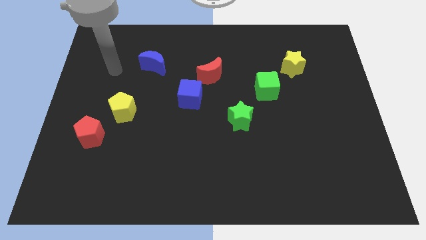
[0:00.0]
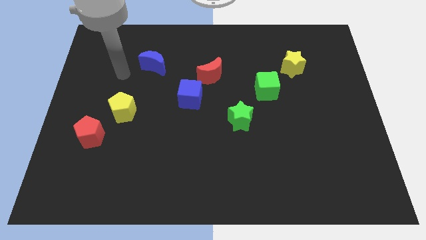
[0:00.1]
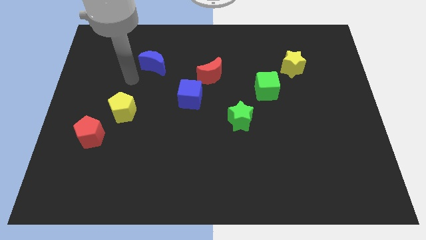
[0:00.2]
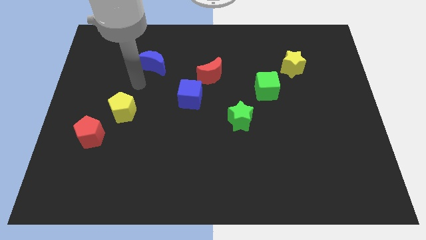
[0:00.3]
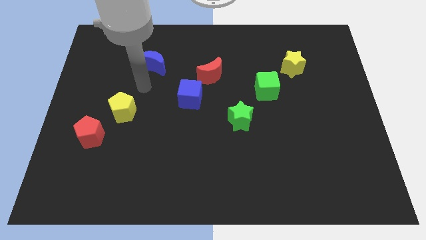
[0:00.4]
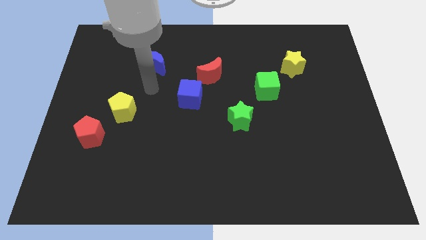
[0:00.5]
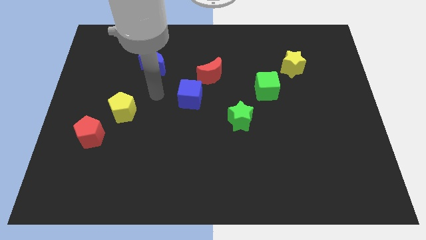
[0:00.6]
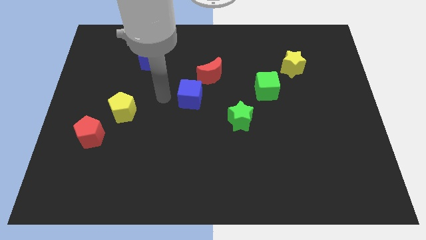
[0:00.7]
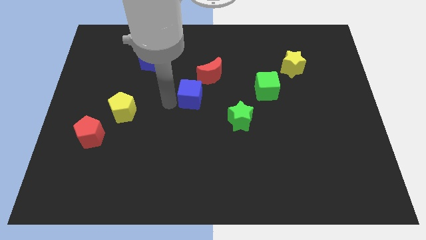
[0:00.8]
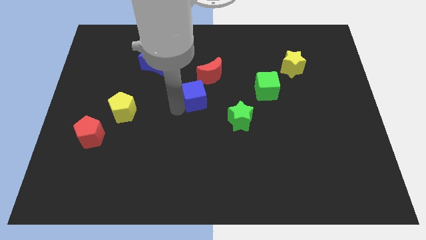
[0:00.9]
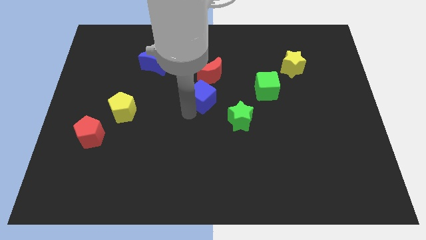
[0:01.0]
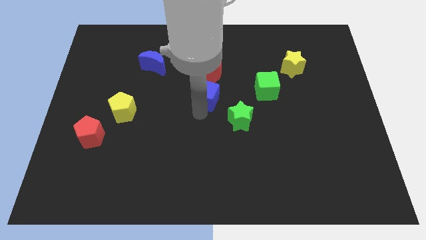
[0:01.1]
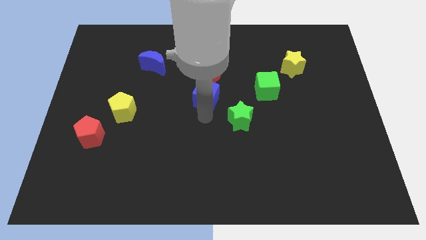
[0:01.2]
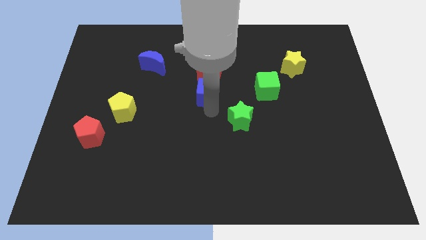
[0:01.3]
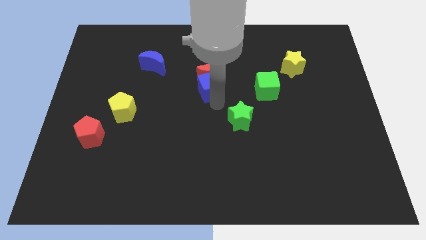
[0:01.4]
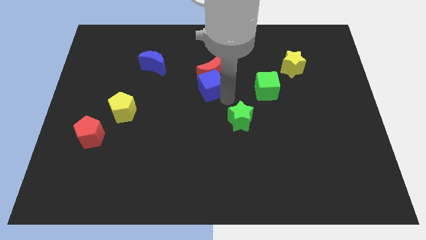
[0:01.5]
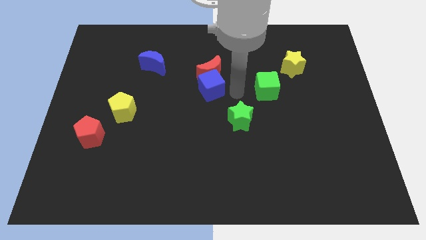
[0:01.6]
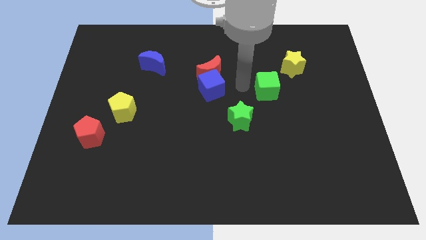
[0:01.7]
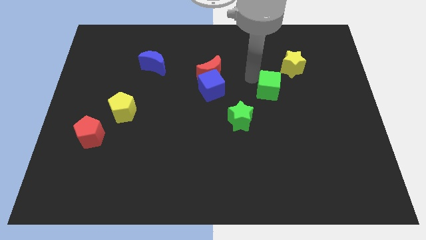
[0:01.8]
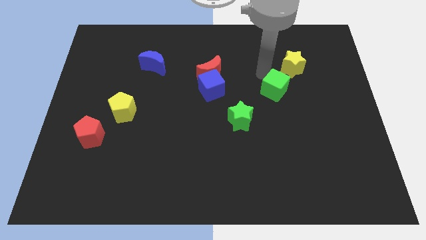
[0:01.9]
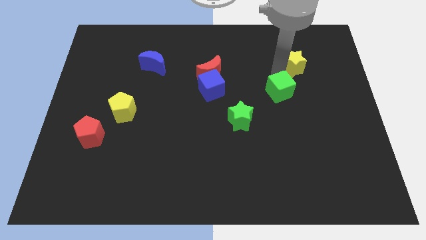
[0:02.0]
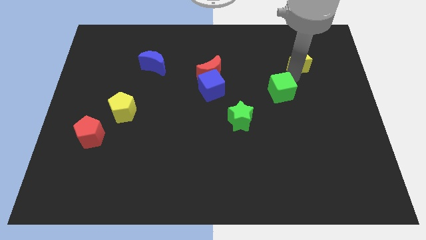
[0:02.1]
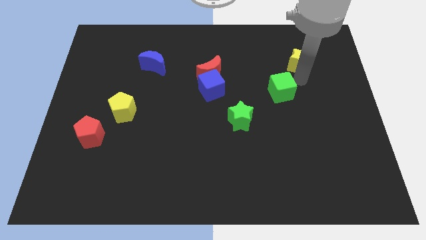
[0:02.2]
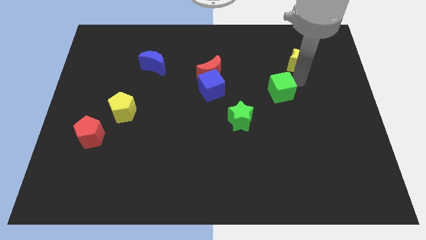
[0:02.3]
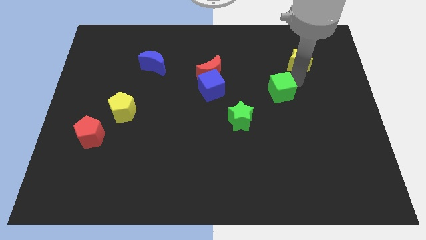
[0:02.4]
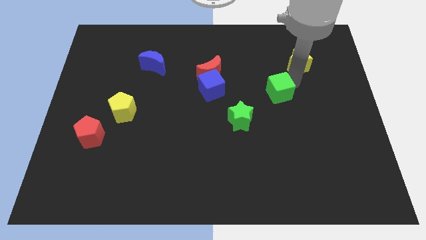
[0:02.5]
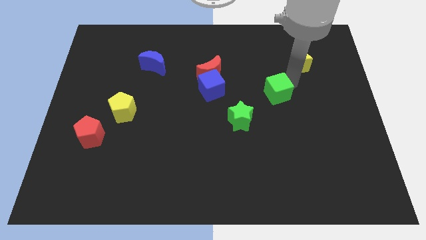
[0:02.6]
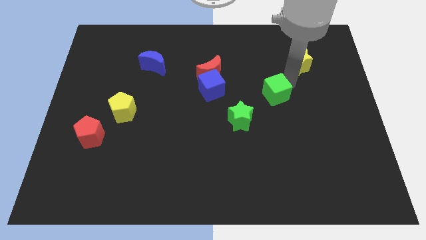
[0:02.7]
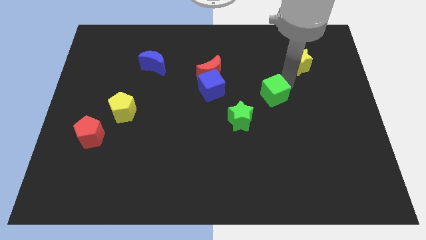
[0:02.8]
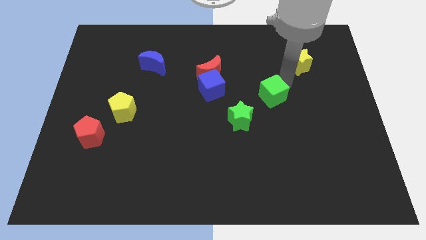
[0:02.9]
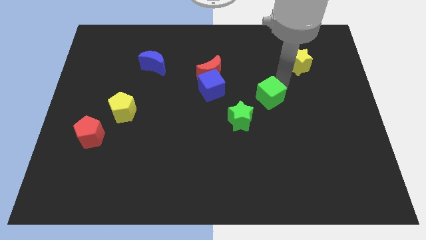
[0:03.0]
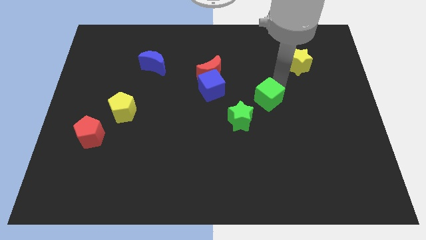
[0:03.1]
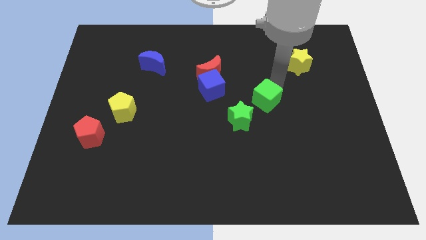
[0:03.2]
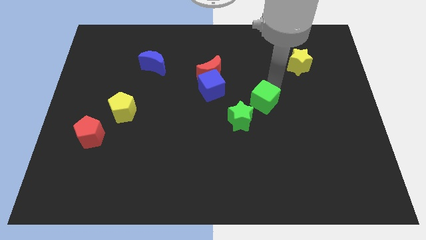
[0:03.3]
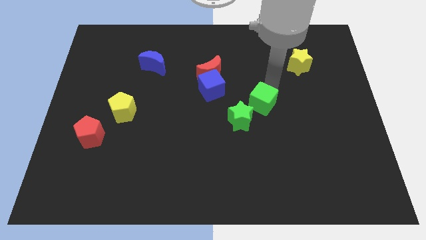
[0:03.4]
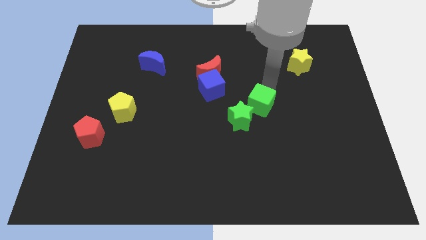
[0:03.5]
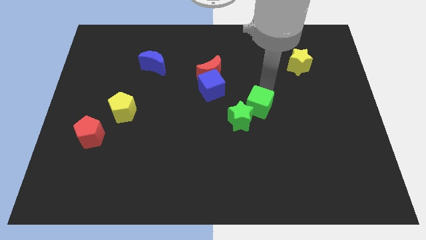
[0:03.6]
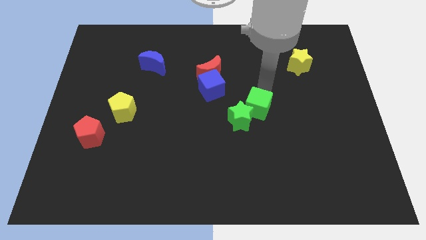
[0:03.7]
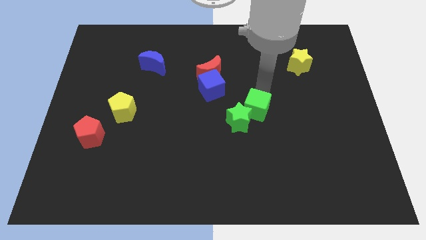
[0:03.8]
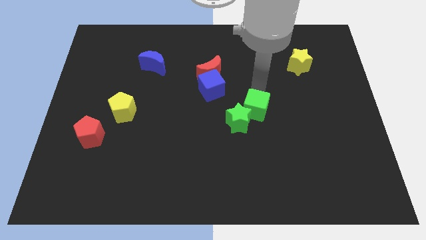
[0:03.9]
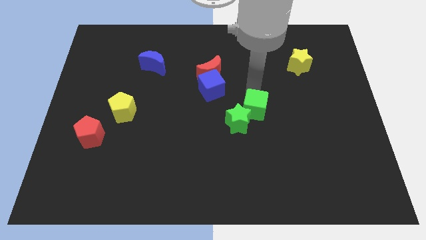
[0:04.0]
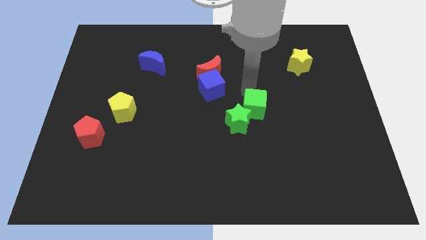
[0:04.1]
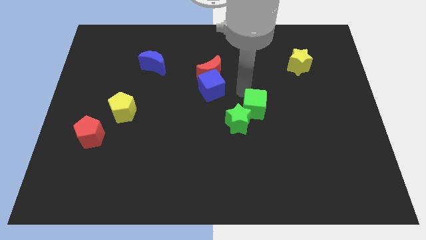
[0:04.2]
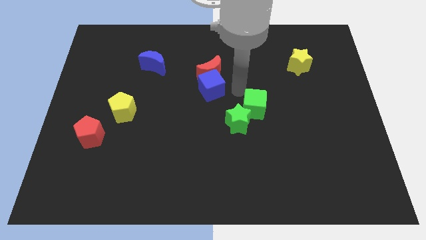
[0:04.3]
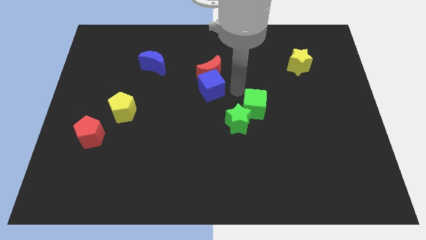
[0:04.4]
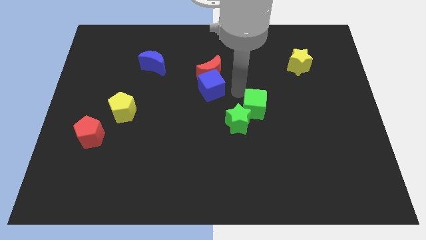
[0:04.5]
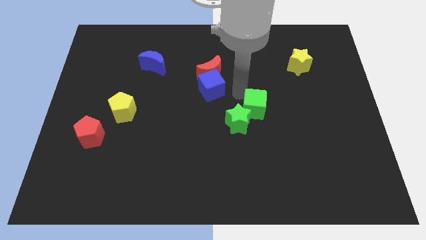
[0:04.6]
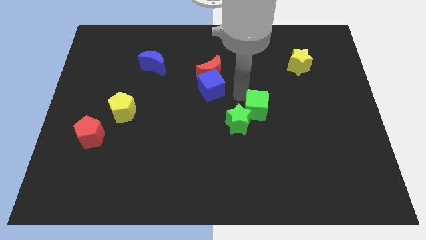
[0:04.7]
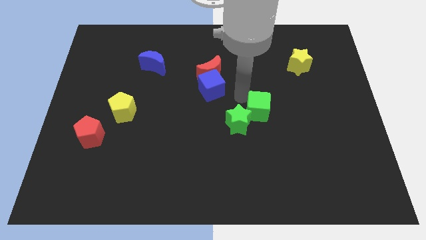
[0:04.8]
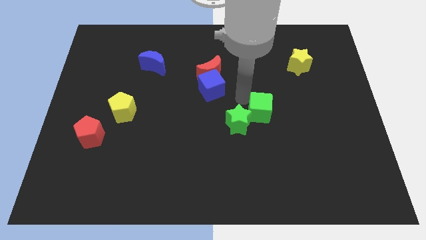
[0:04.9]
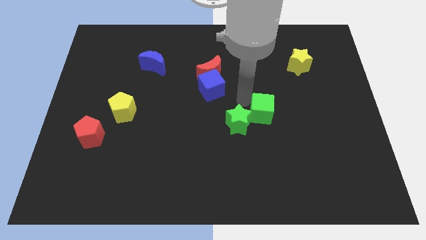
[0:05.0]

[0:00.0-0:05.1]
slightly slide the green cube down

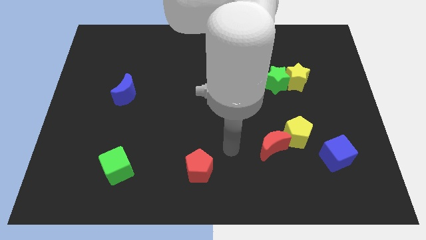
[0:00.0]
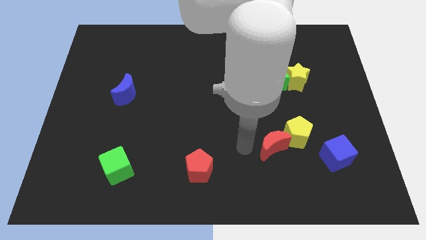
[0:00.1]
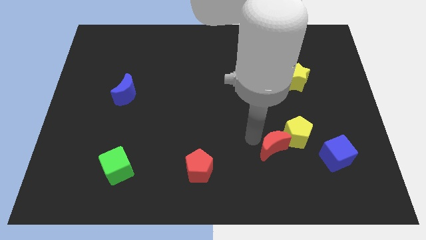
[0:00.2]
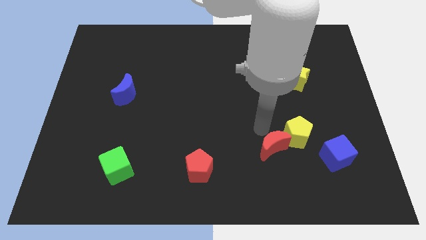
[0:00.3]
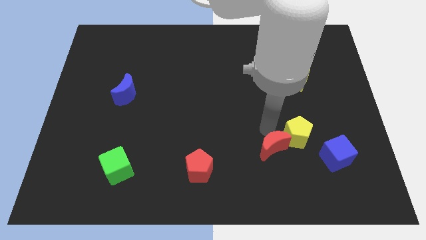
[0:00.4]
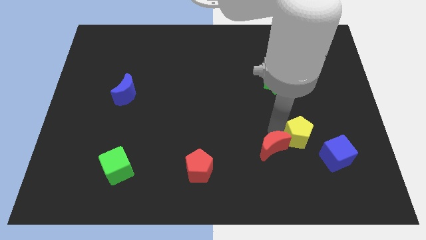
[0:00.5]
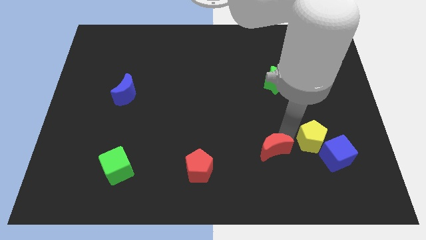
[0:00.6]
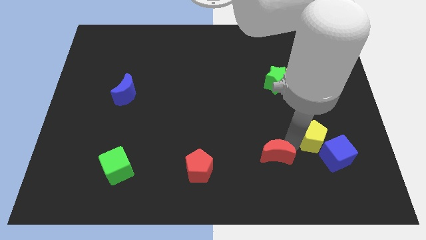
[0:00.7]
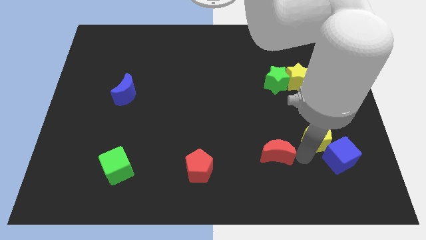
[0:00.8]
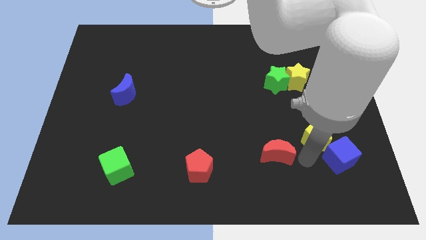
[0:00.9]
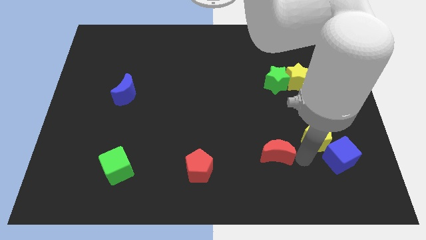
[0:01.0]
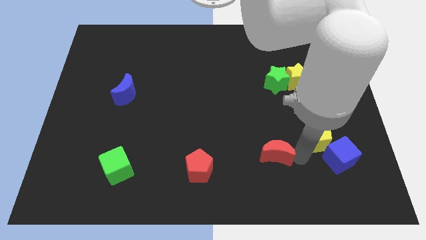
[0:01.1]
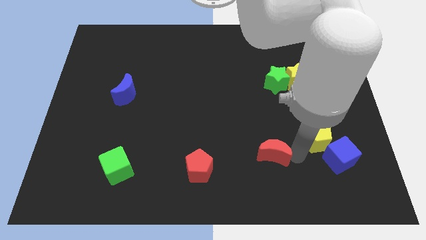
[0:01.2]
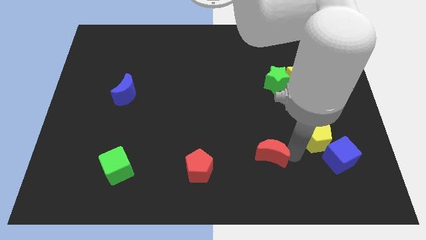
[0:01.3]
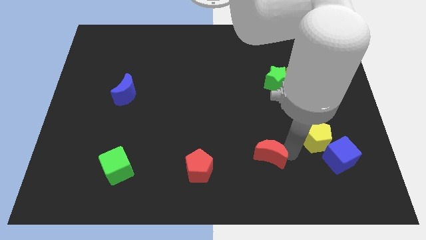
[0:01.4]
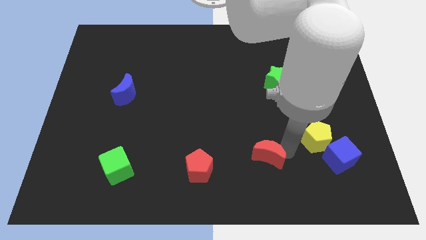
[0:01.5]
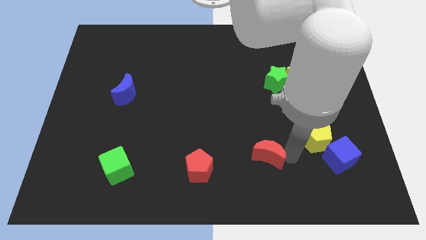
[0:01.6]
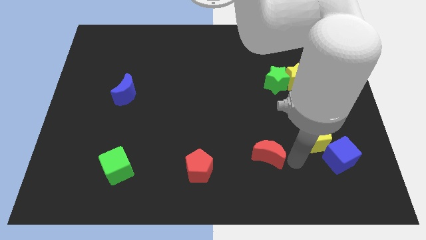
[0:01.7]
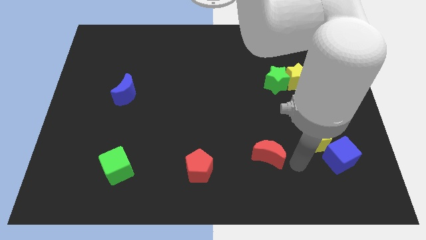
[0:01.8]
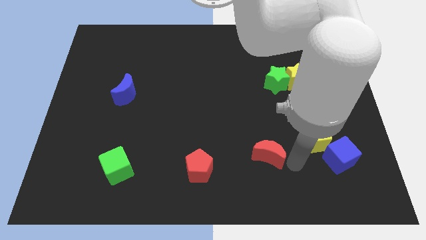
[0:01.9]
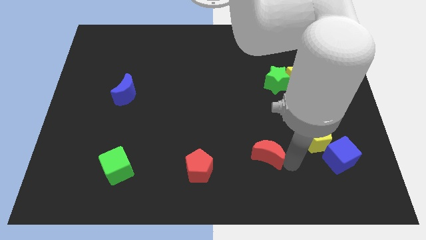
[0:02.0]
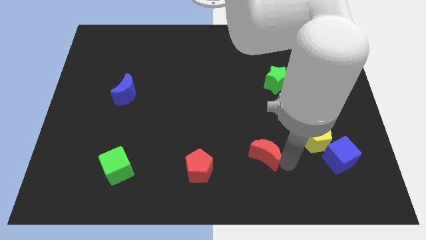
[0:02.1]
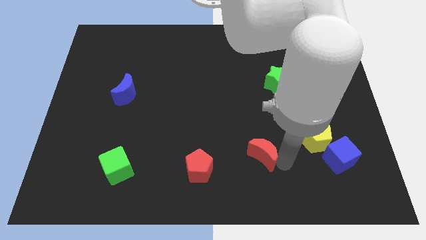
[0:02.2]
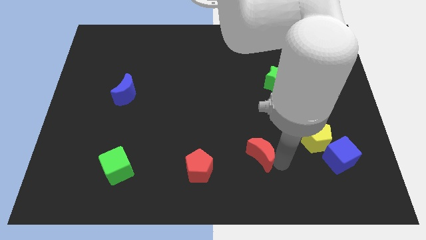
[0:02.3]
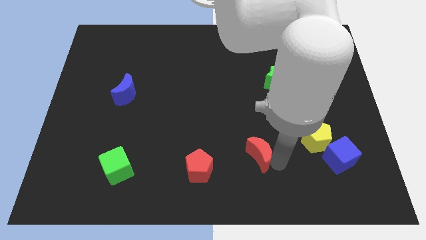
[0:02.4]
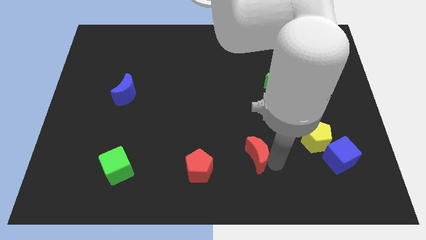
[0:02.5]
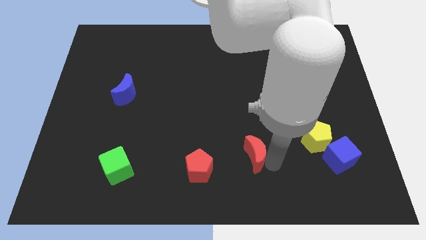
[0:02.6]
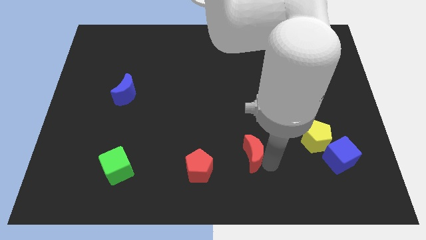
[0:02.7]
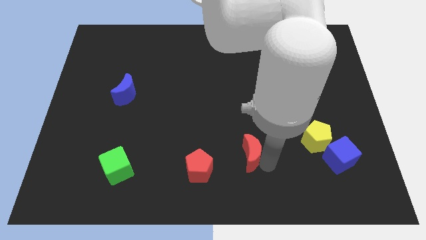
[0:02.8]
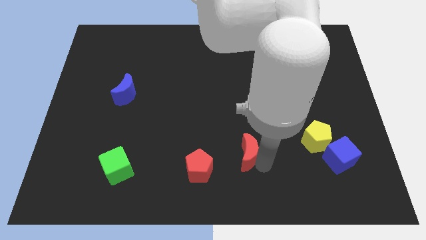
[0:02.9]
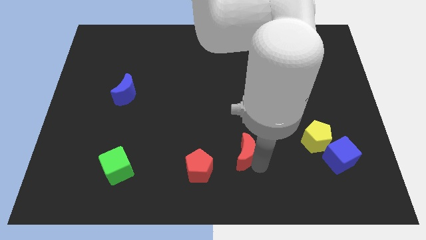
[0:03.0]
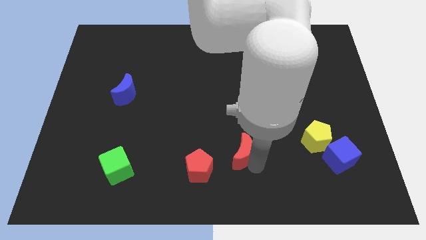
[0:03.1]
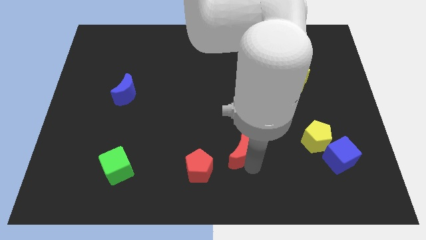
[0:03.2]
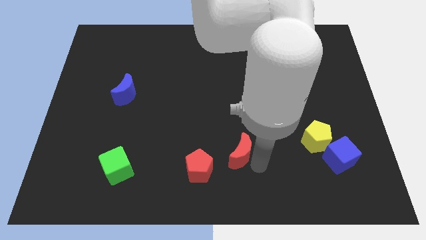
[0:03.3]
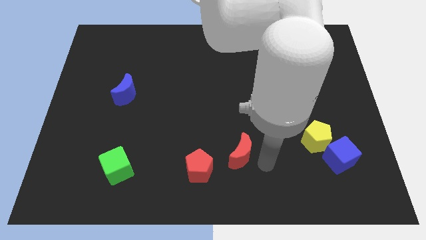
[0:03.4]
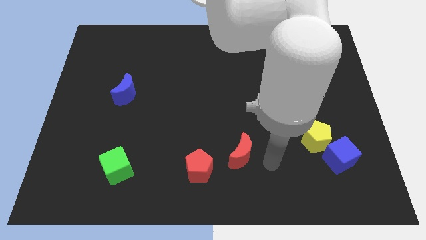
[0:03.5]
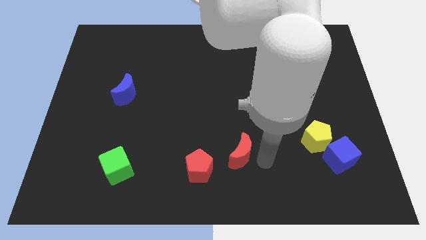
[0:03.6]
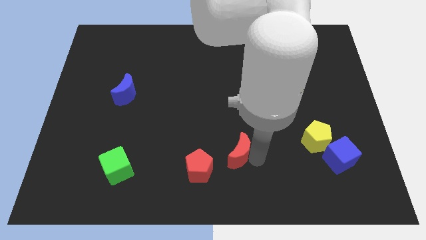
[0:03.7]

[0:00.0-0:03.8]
slide the red moon a little bit left
